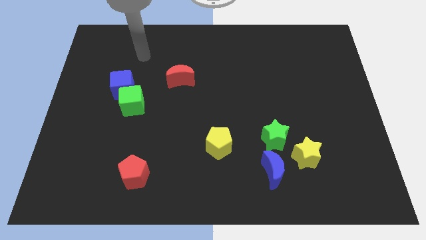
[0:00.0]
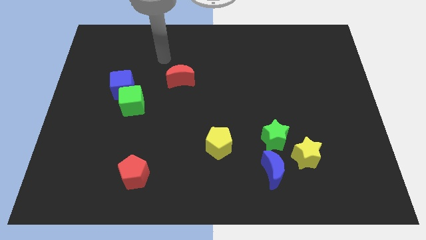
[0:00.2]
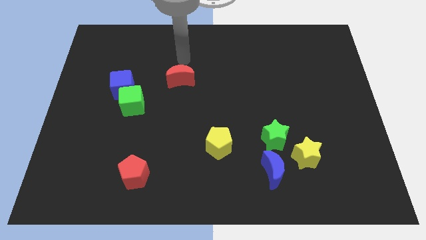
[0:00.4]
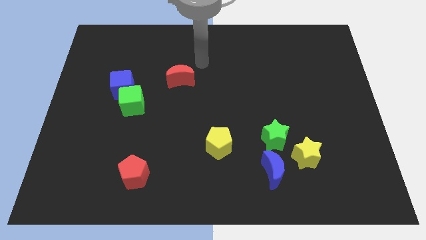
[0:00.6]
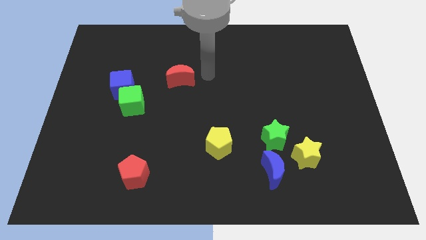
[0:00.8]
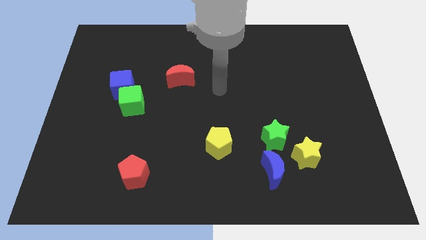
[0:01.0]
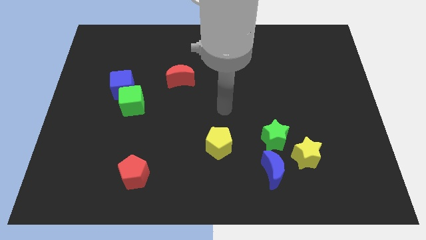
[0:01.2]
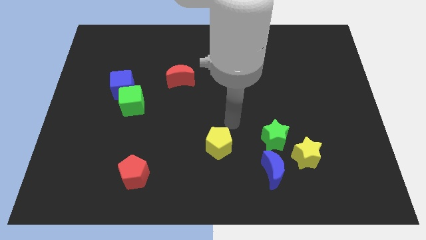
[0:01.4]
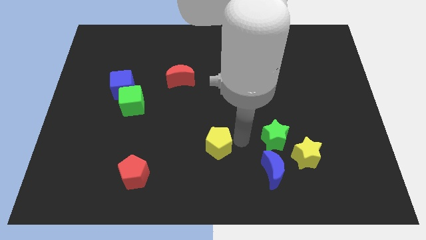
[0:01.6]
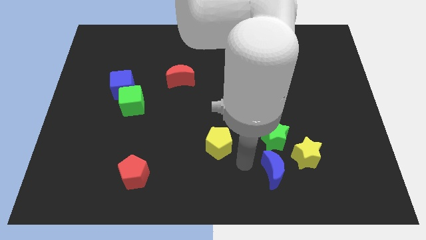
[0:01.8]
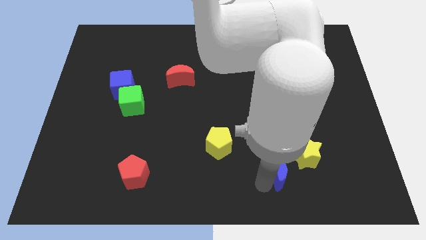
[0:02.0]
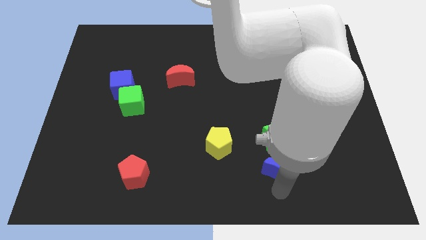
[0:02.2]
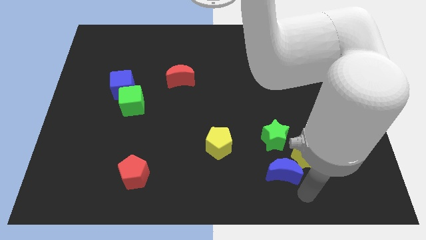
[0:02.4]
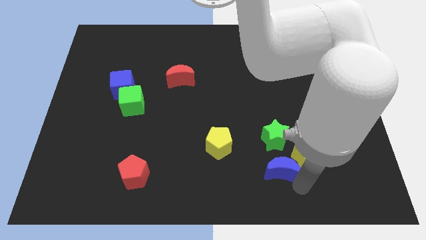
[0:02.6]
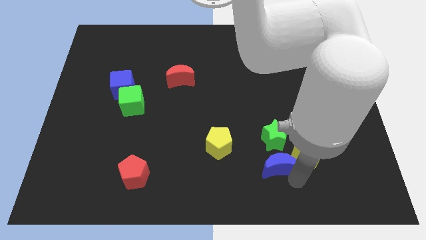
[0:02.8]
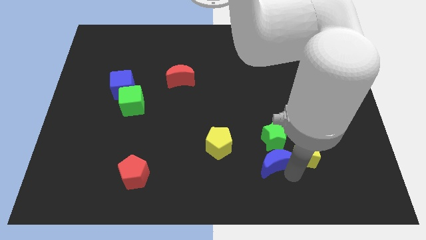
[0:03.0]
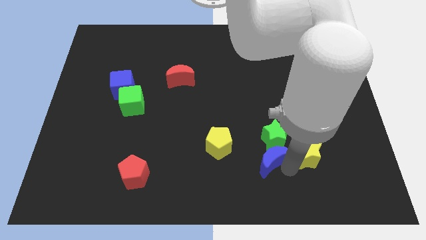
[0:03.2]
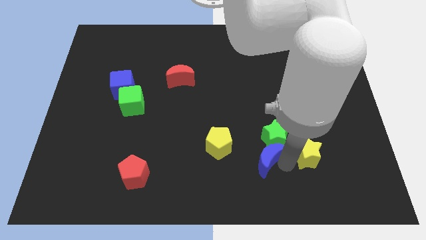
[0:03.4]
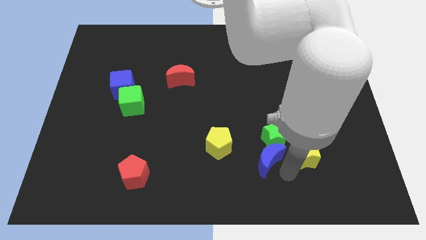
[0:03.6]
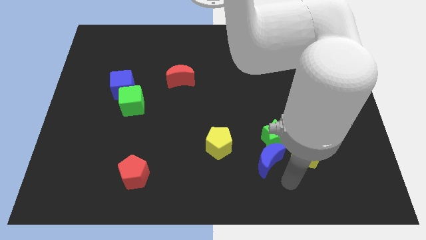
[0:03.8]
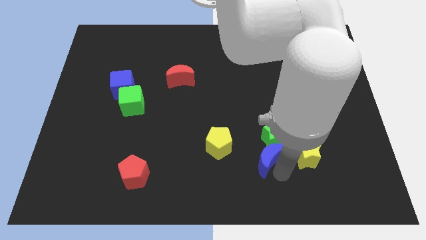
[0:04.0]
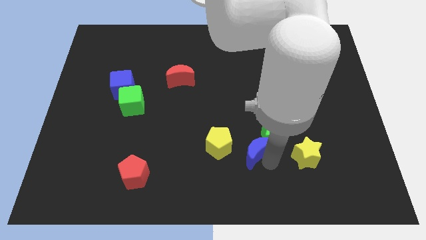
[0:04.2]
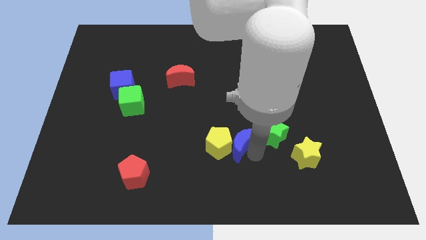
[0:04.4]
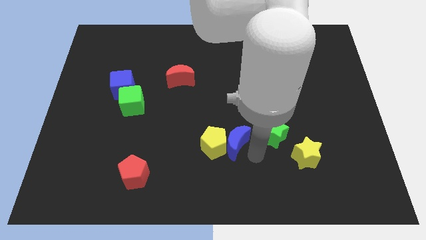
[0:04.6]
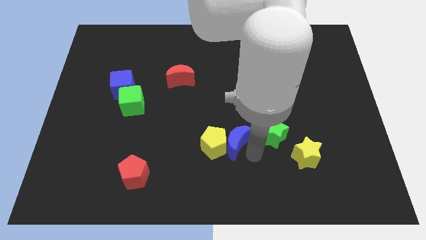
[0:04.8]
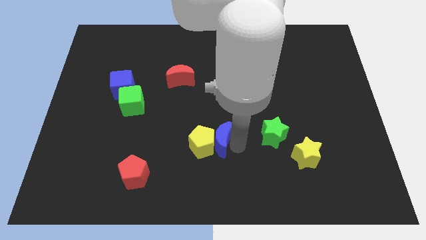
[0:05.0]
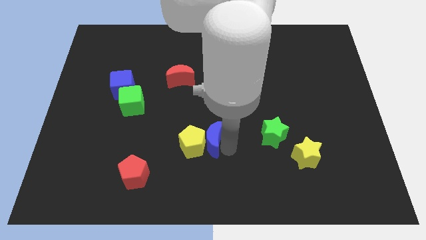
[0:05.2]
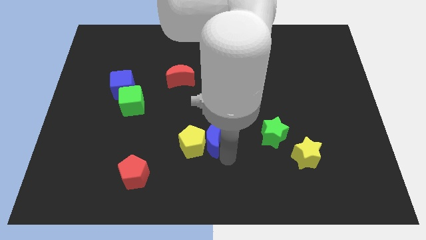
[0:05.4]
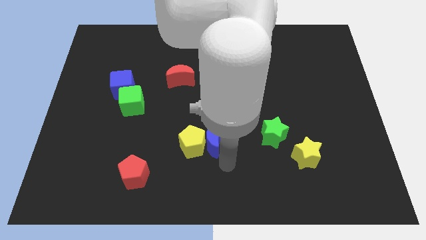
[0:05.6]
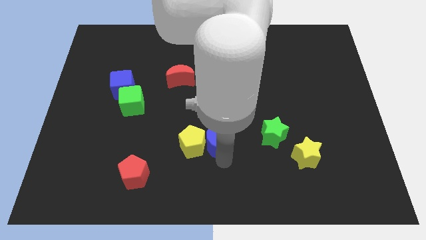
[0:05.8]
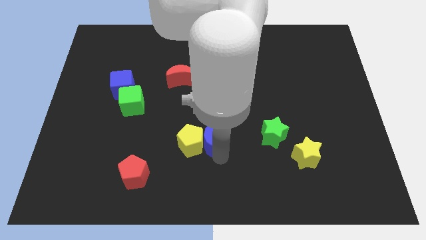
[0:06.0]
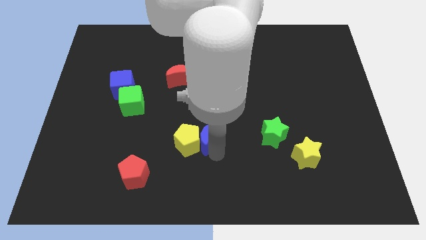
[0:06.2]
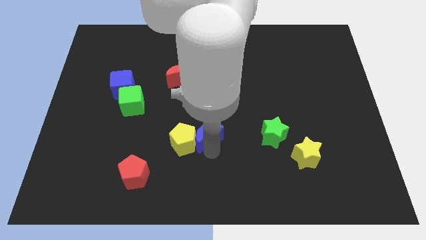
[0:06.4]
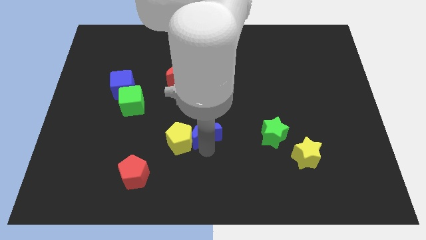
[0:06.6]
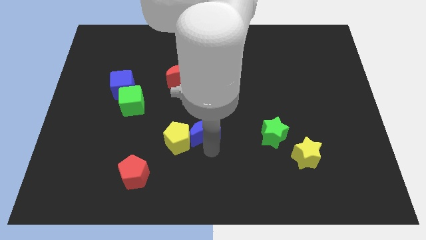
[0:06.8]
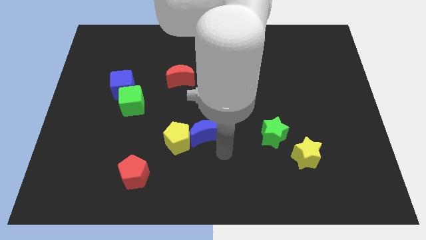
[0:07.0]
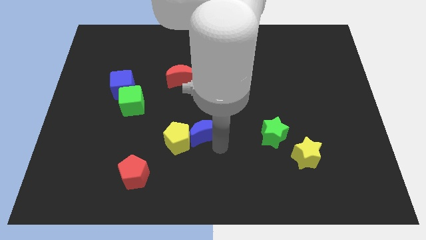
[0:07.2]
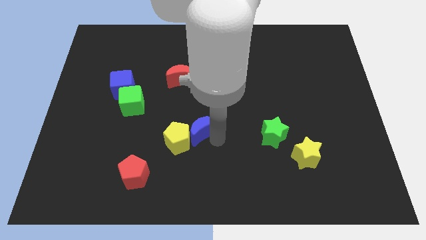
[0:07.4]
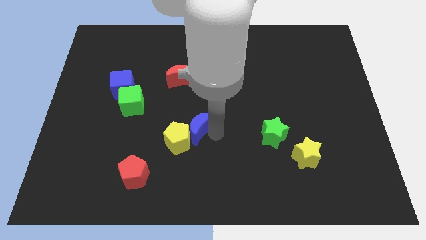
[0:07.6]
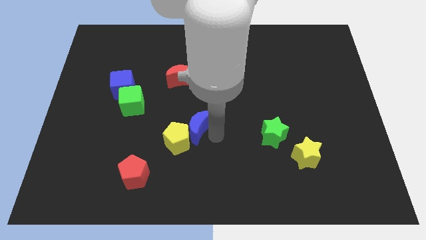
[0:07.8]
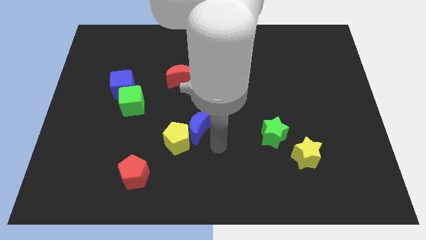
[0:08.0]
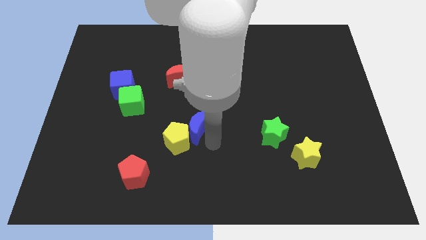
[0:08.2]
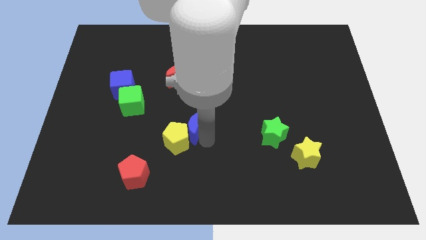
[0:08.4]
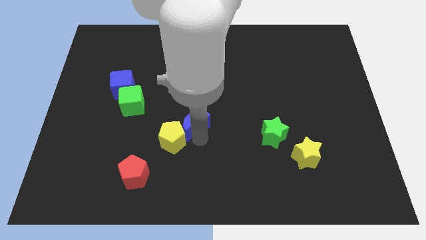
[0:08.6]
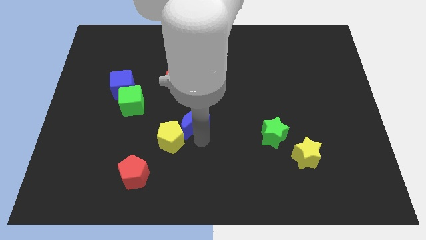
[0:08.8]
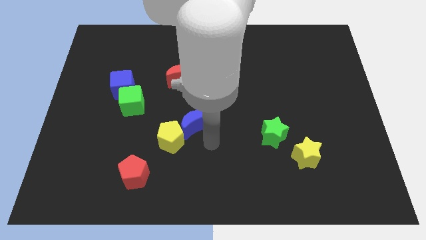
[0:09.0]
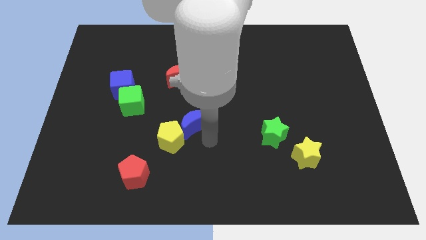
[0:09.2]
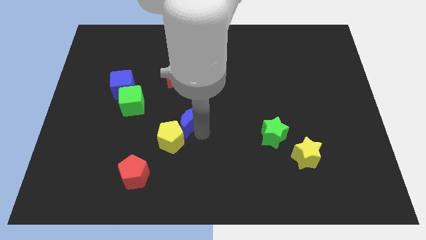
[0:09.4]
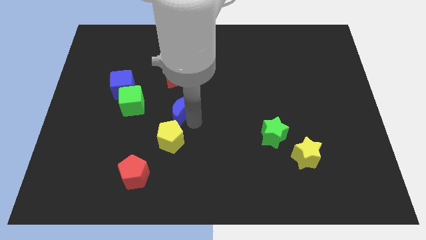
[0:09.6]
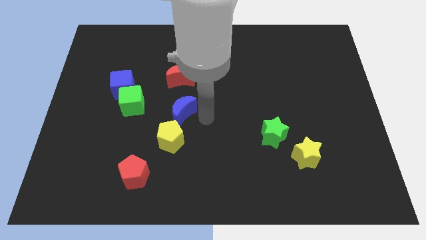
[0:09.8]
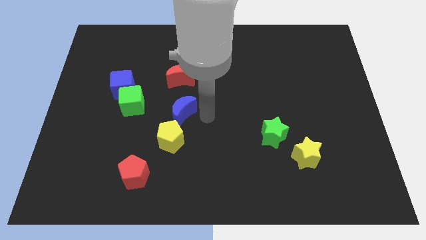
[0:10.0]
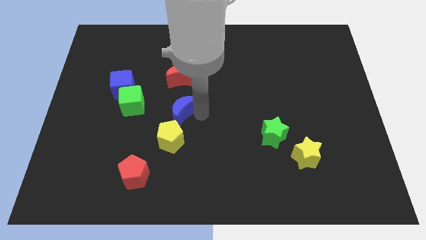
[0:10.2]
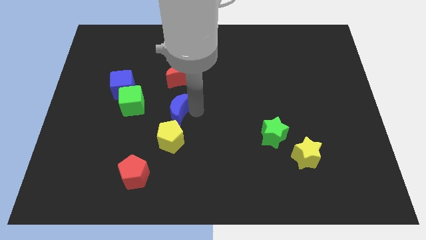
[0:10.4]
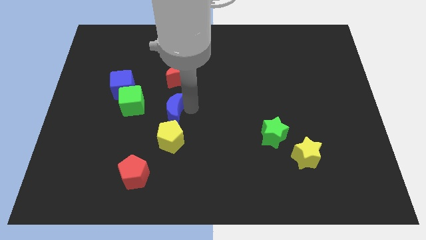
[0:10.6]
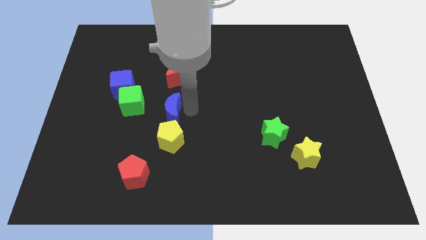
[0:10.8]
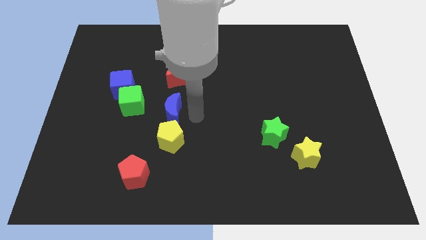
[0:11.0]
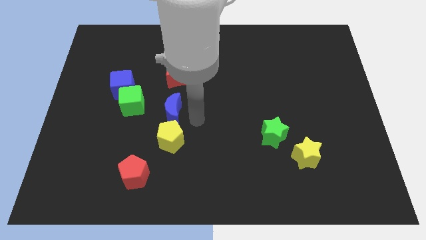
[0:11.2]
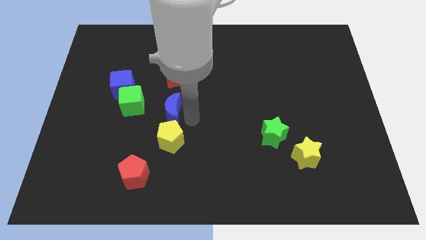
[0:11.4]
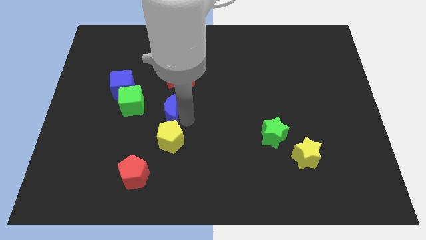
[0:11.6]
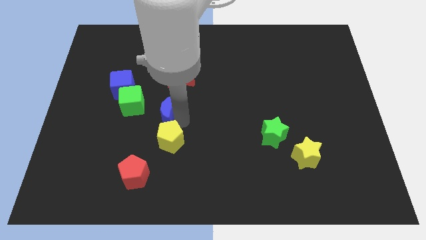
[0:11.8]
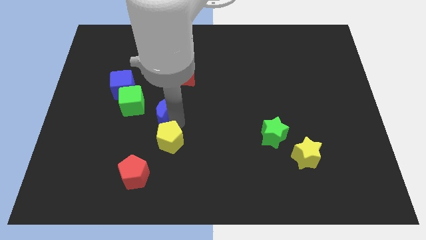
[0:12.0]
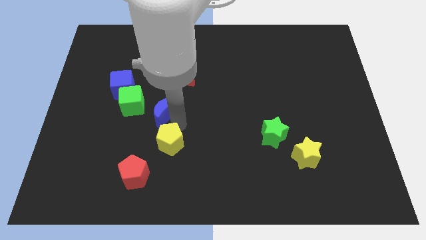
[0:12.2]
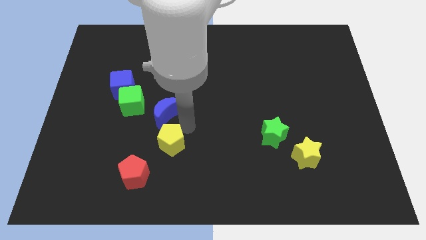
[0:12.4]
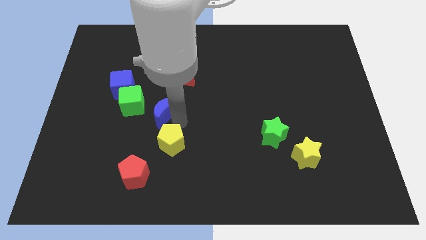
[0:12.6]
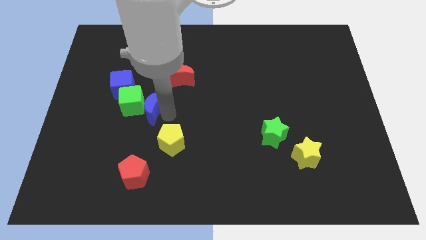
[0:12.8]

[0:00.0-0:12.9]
push the blue moon towards the green cube

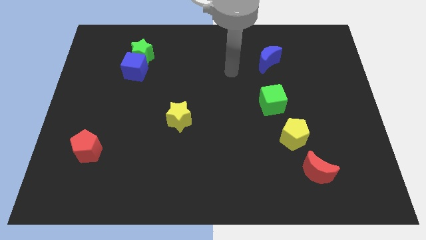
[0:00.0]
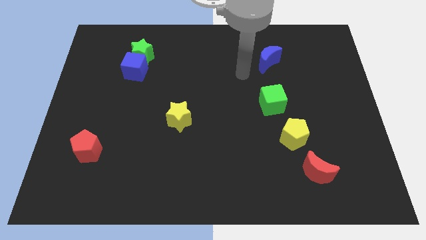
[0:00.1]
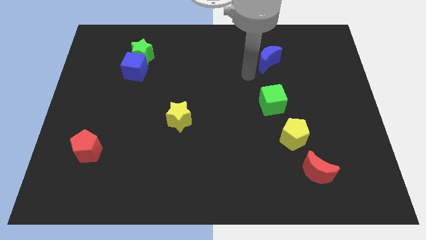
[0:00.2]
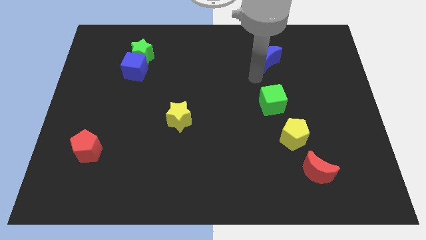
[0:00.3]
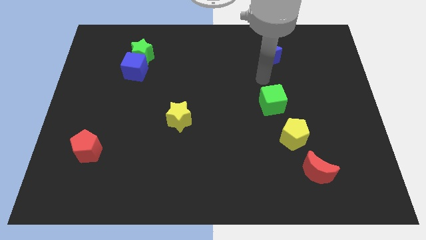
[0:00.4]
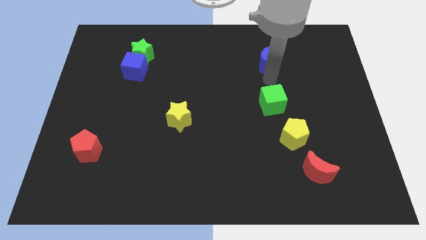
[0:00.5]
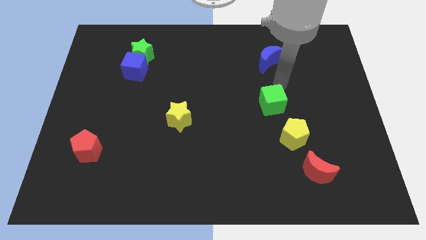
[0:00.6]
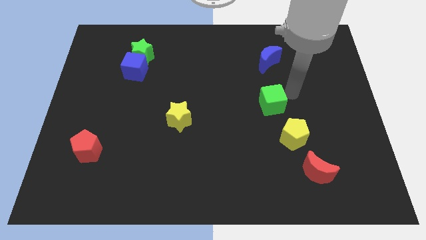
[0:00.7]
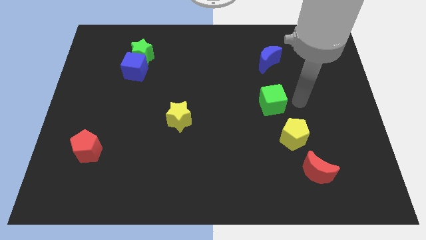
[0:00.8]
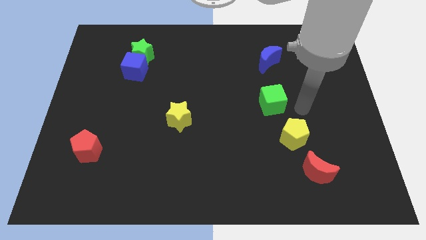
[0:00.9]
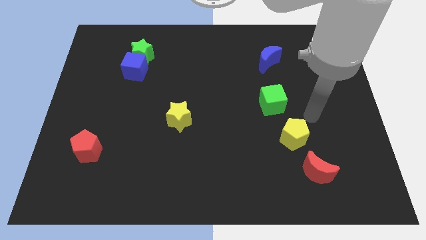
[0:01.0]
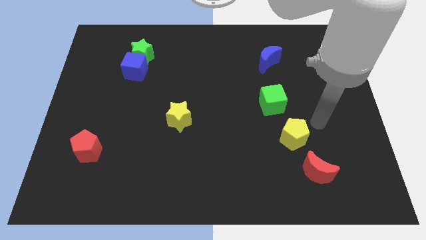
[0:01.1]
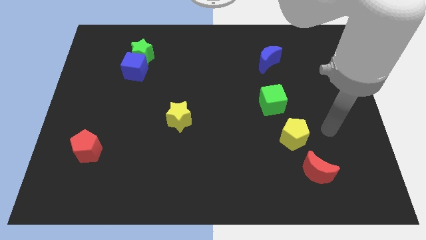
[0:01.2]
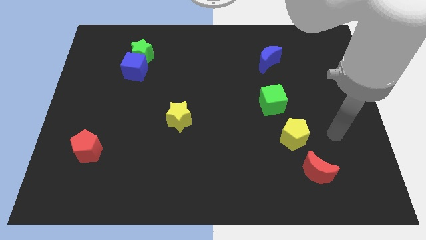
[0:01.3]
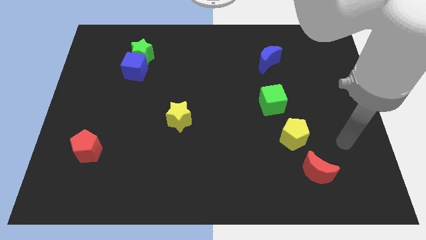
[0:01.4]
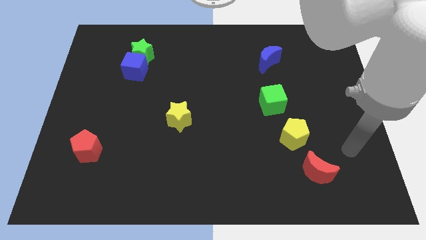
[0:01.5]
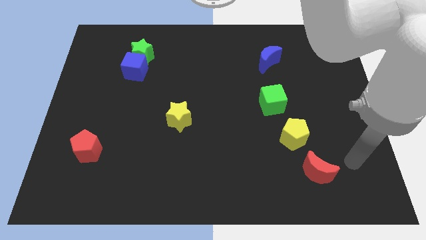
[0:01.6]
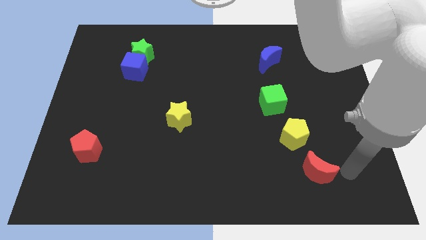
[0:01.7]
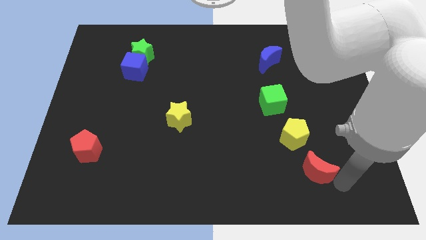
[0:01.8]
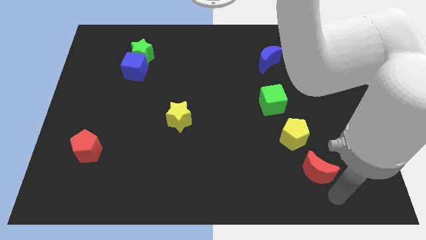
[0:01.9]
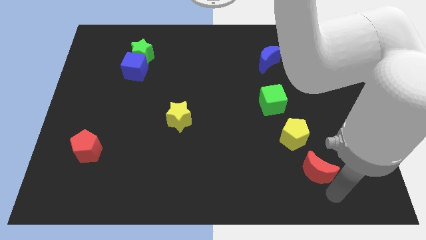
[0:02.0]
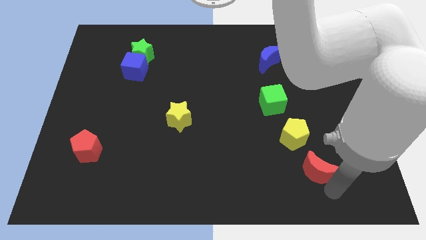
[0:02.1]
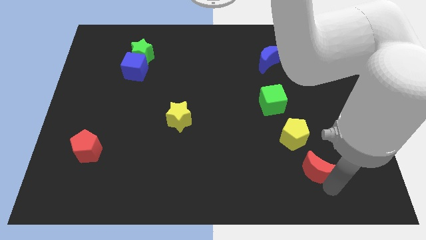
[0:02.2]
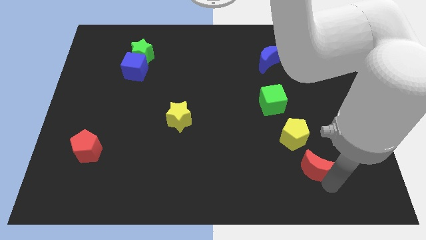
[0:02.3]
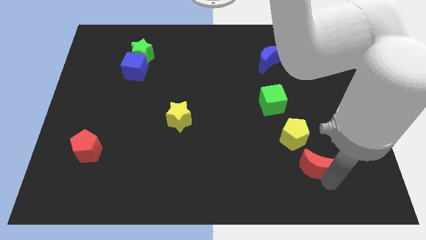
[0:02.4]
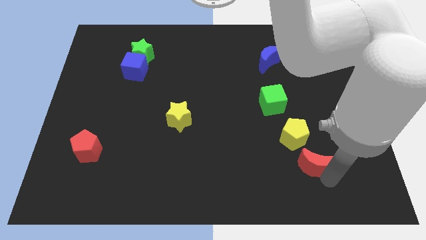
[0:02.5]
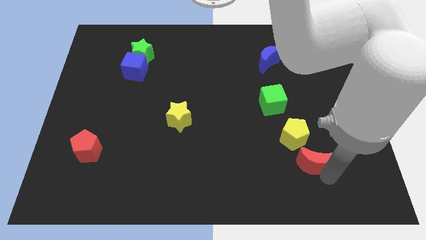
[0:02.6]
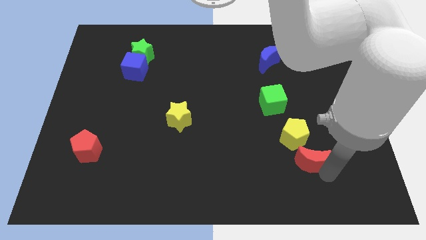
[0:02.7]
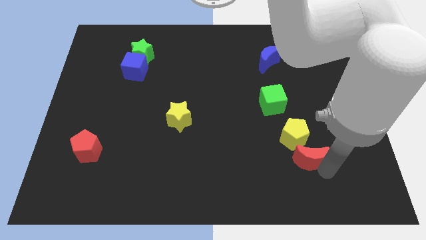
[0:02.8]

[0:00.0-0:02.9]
put the red moon next to the yellow pentagon
